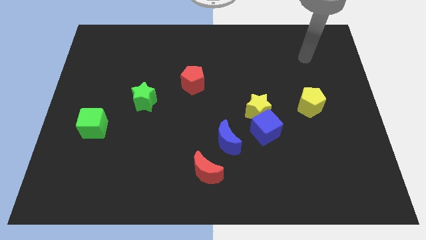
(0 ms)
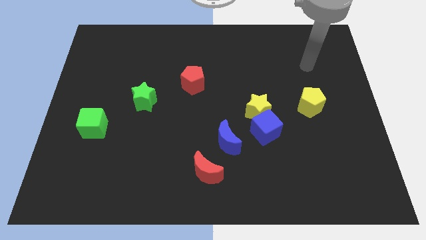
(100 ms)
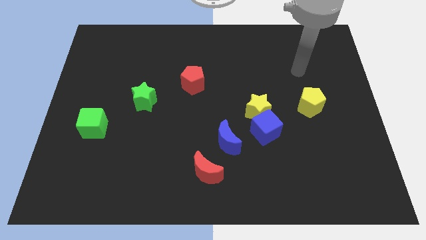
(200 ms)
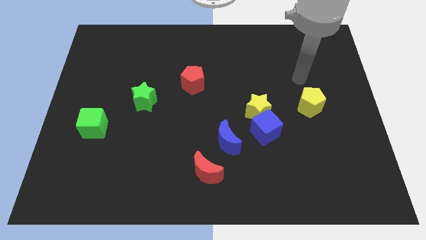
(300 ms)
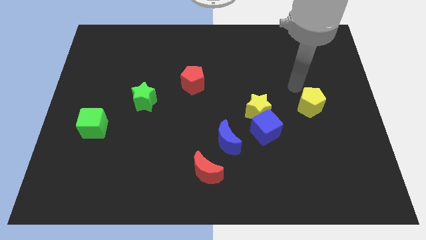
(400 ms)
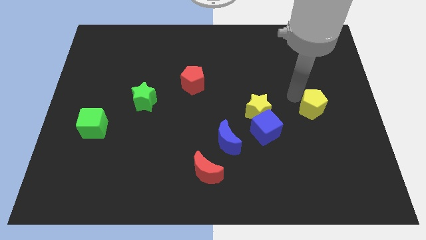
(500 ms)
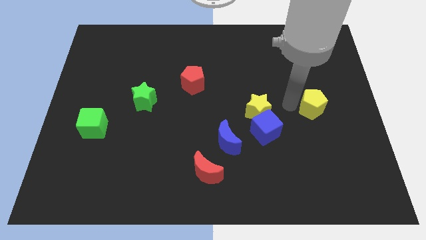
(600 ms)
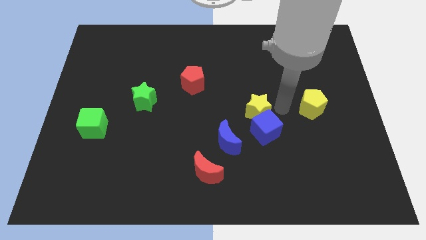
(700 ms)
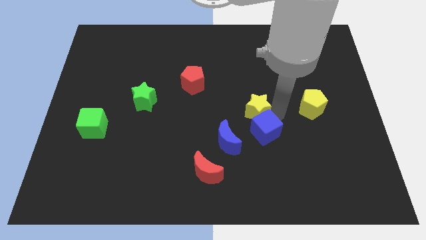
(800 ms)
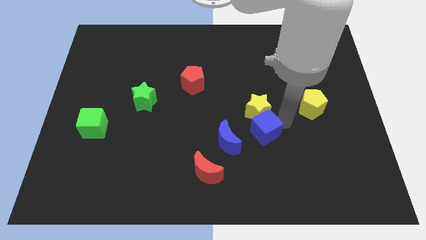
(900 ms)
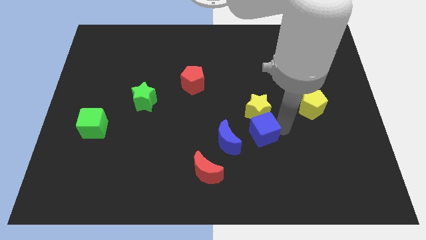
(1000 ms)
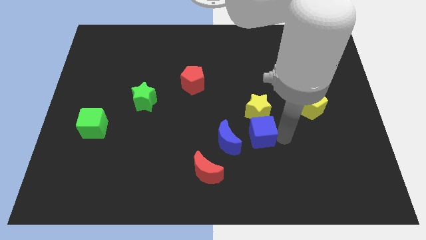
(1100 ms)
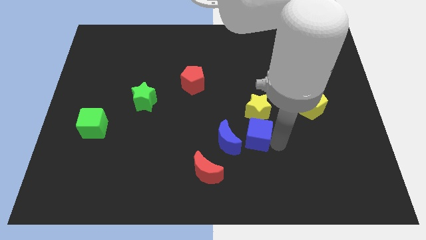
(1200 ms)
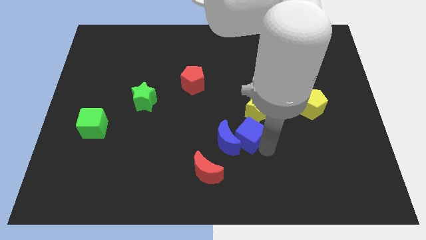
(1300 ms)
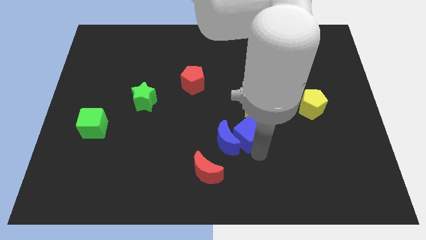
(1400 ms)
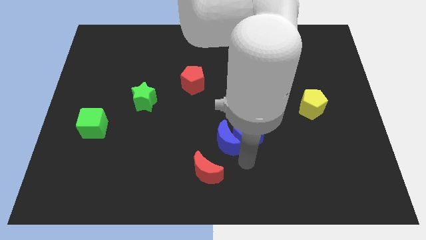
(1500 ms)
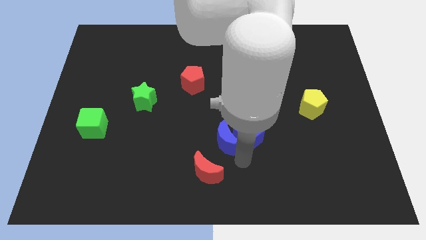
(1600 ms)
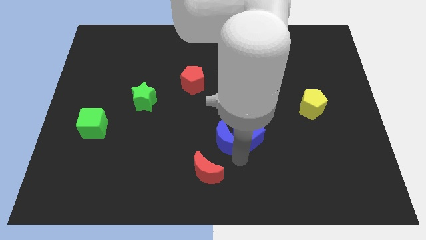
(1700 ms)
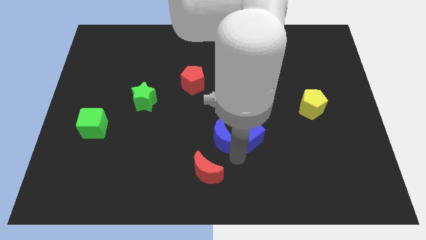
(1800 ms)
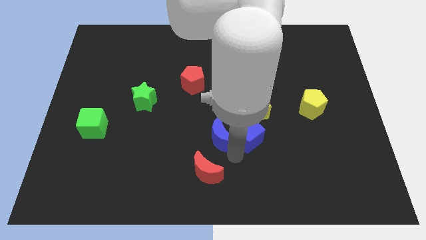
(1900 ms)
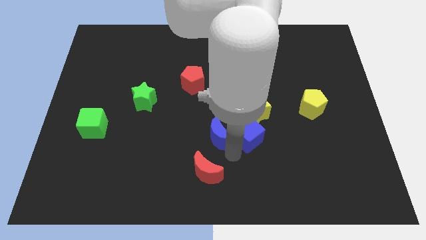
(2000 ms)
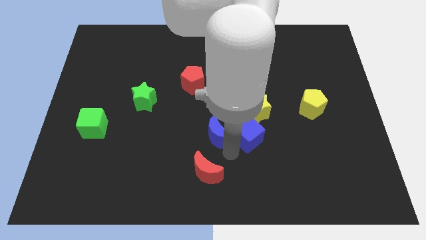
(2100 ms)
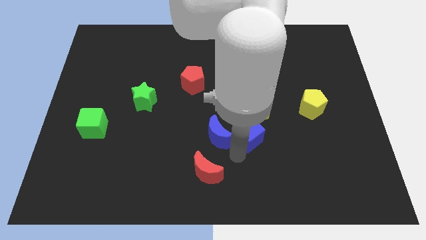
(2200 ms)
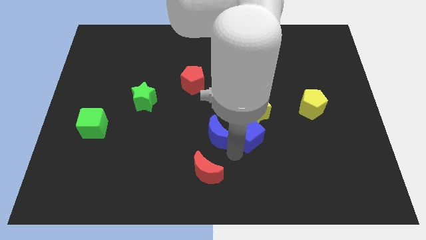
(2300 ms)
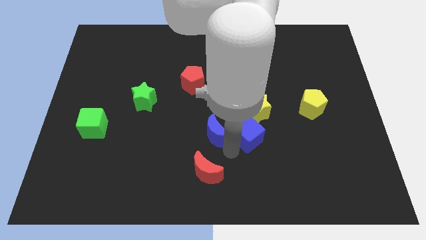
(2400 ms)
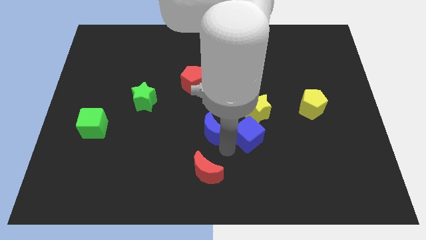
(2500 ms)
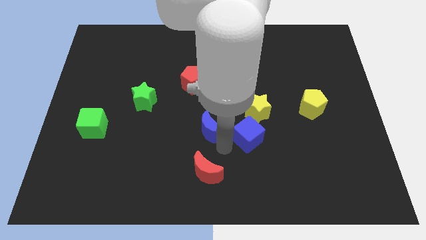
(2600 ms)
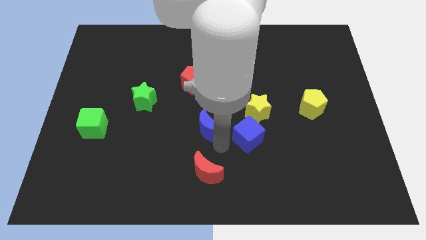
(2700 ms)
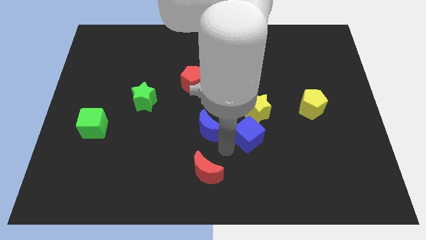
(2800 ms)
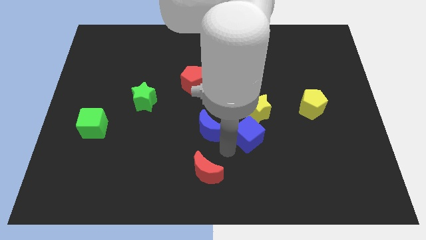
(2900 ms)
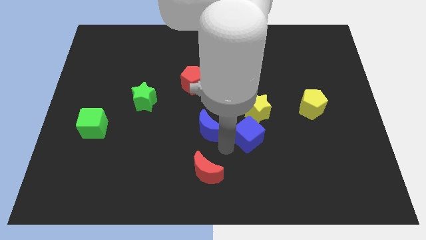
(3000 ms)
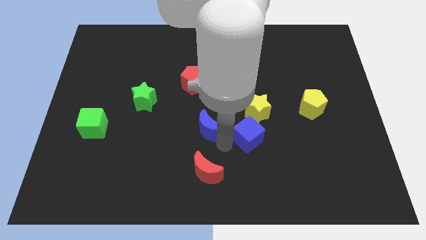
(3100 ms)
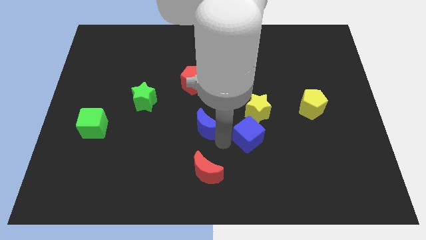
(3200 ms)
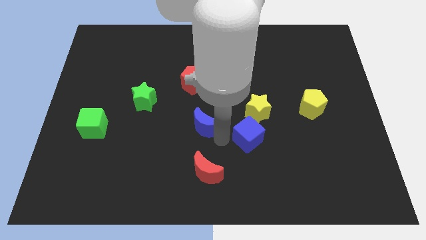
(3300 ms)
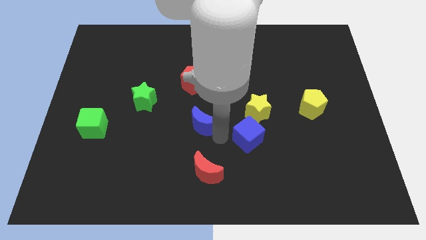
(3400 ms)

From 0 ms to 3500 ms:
slightly slide the blue moon upwards and left diagonally

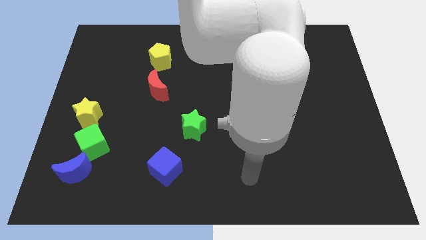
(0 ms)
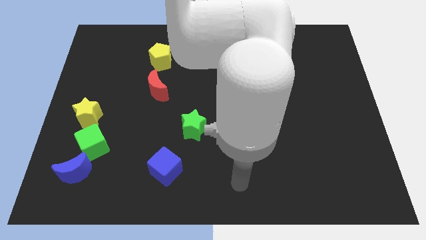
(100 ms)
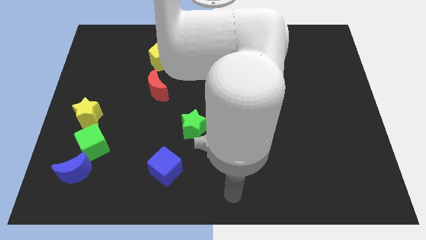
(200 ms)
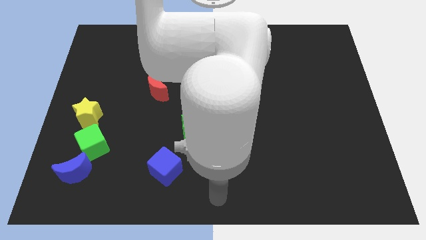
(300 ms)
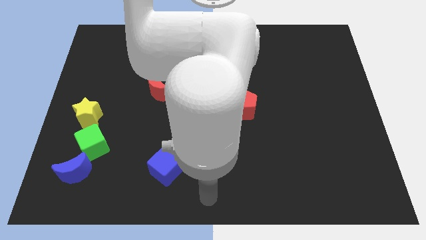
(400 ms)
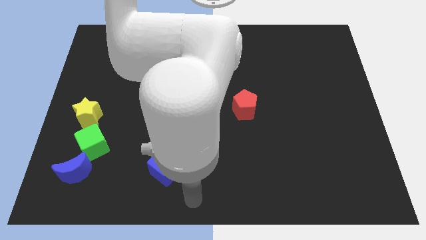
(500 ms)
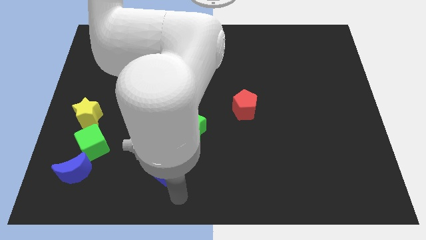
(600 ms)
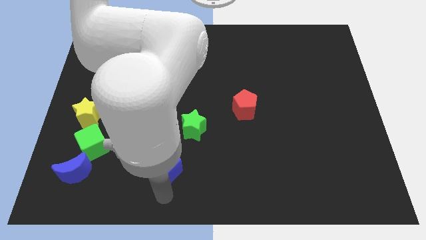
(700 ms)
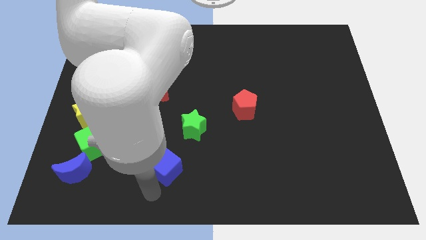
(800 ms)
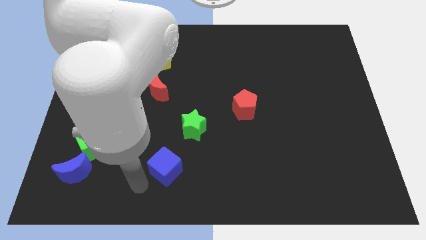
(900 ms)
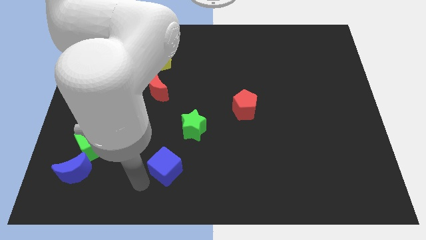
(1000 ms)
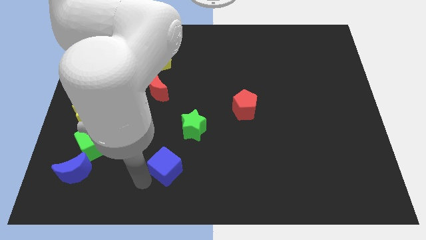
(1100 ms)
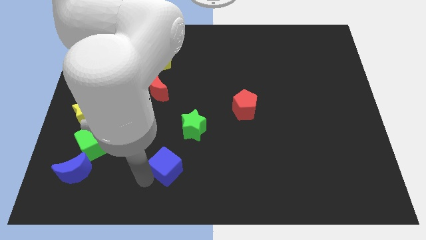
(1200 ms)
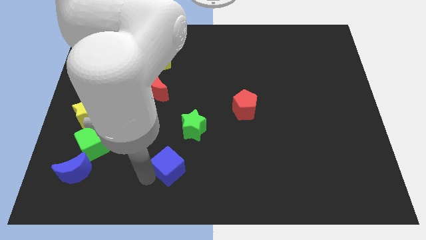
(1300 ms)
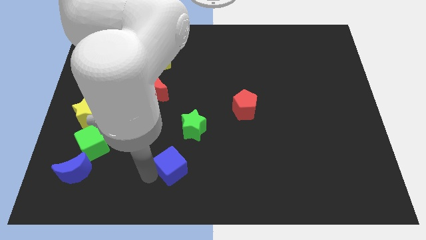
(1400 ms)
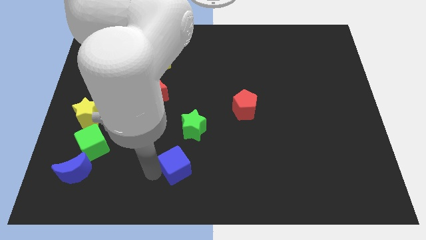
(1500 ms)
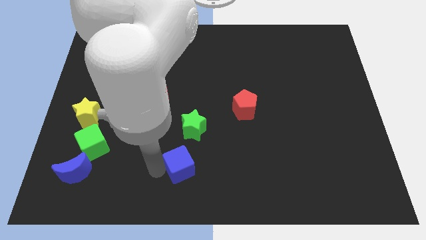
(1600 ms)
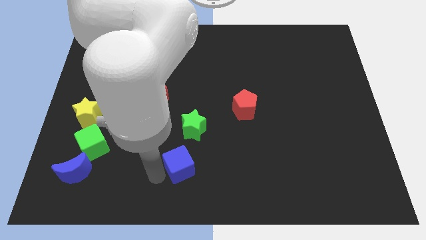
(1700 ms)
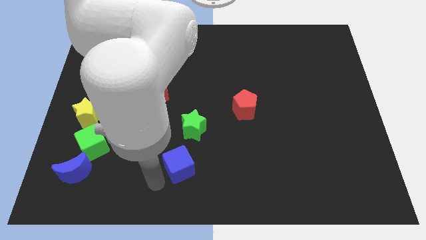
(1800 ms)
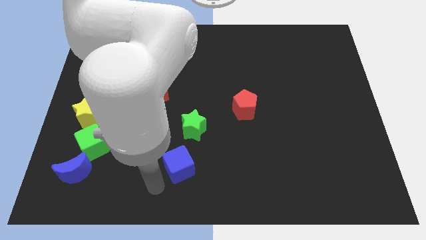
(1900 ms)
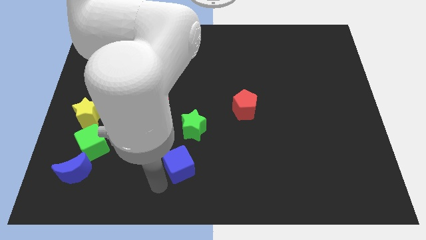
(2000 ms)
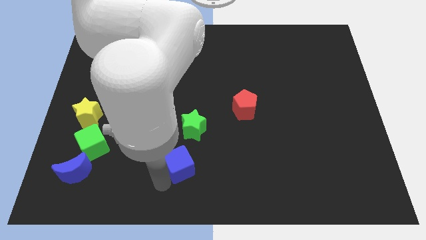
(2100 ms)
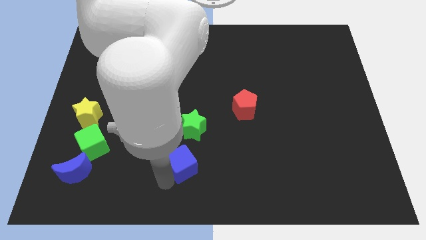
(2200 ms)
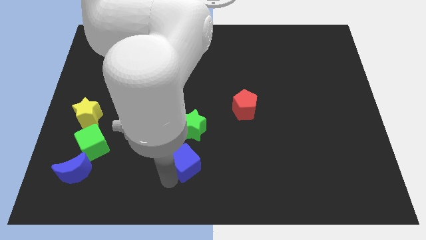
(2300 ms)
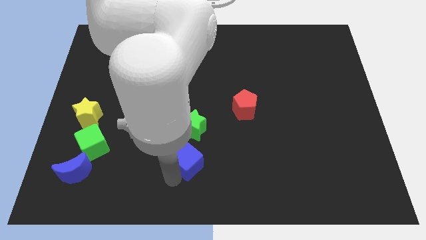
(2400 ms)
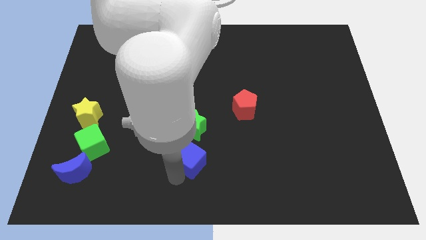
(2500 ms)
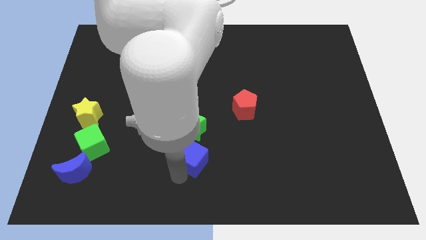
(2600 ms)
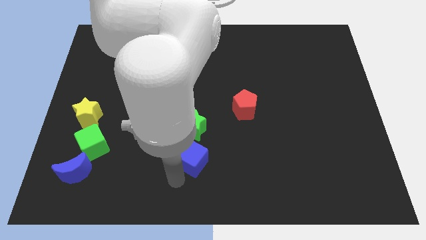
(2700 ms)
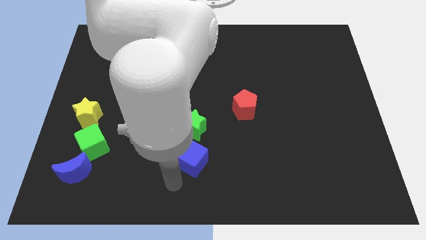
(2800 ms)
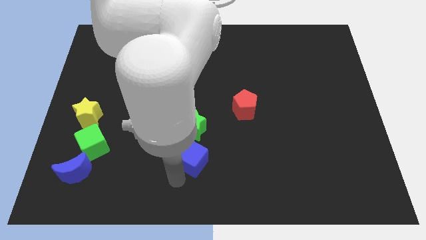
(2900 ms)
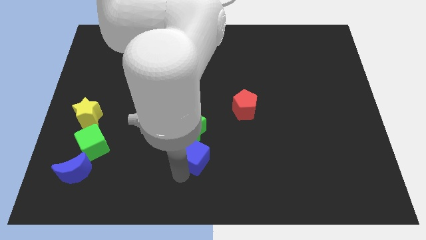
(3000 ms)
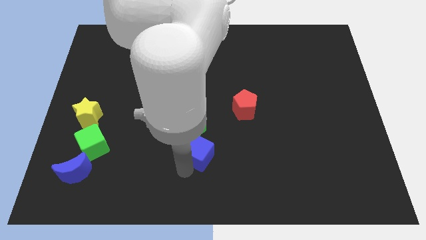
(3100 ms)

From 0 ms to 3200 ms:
slightly push the blue cube up and then to the right

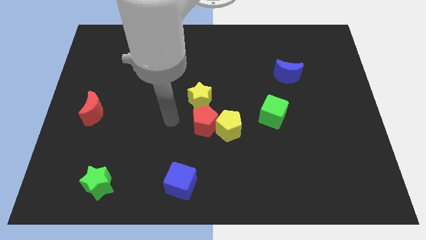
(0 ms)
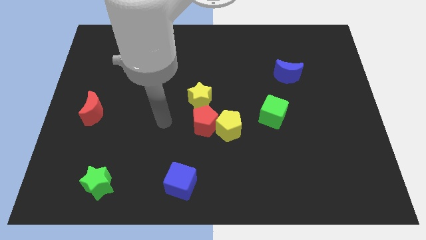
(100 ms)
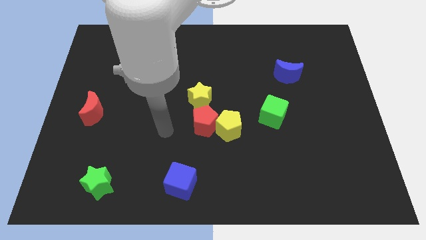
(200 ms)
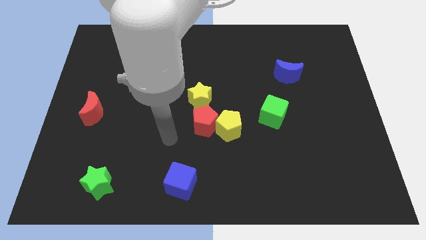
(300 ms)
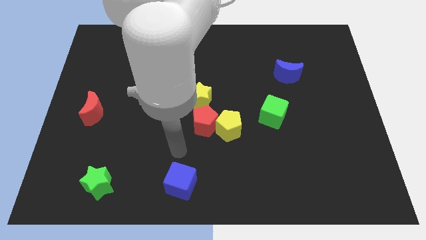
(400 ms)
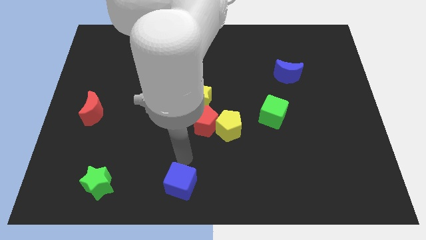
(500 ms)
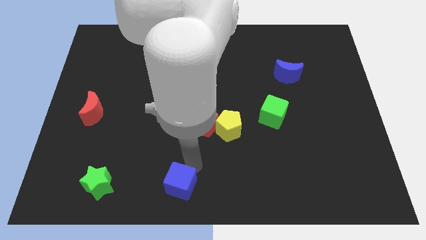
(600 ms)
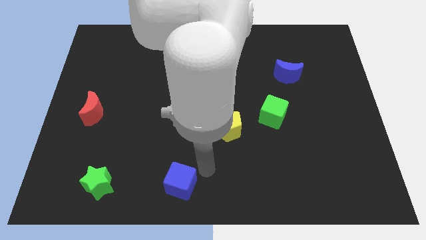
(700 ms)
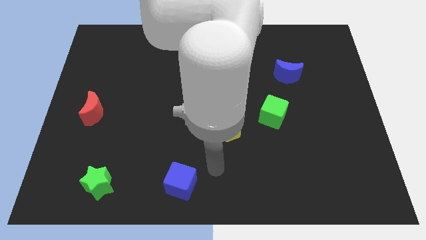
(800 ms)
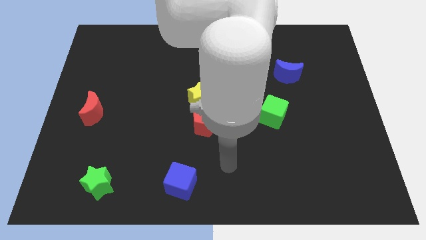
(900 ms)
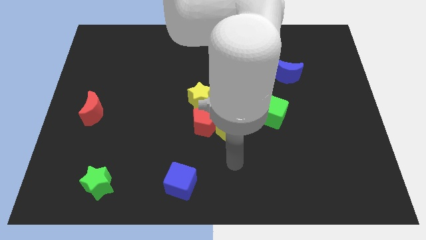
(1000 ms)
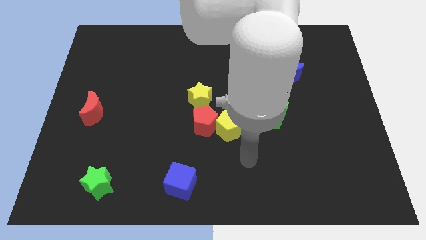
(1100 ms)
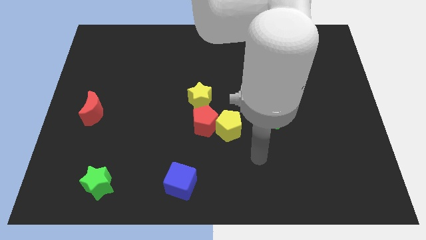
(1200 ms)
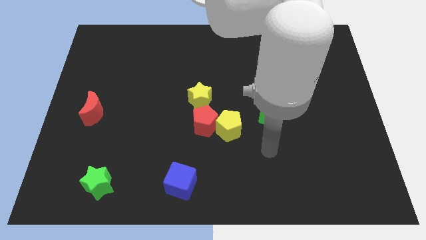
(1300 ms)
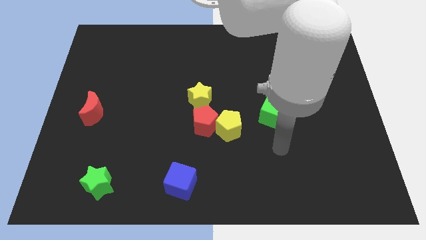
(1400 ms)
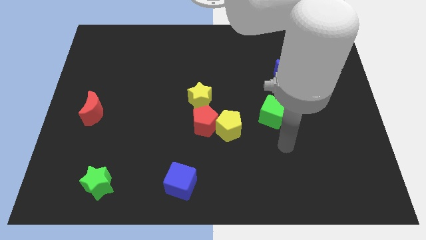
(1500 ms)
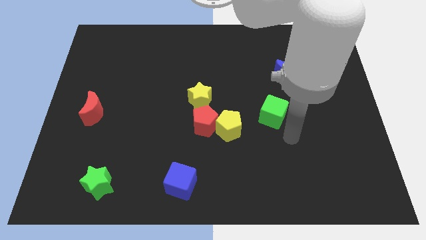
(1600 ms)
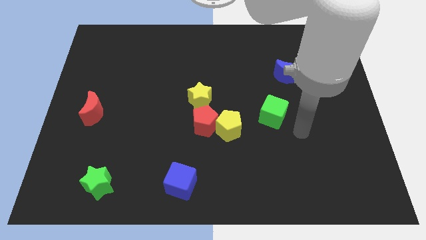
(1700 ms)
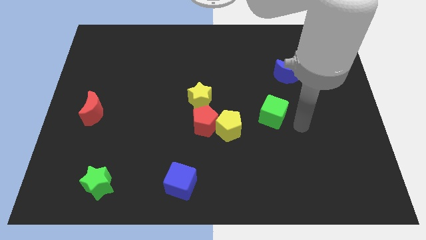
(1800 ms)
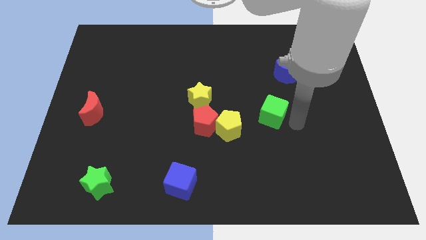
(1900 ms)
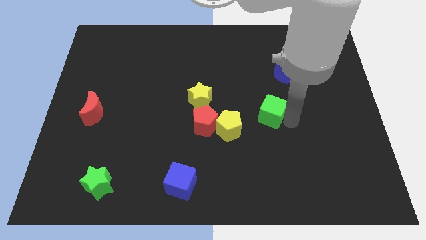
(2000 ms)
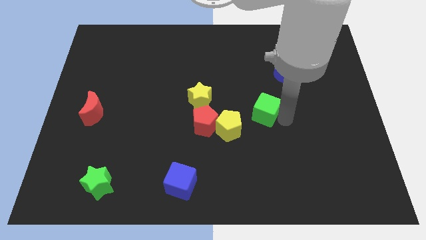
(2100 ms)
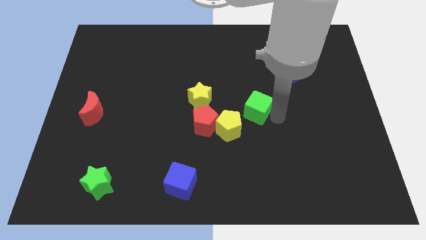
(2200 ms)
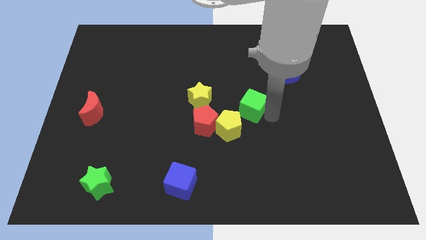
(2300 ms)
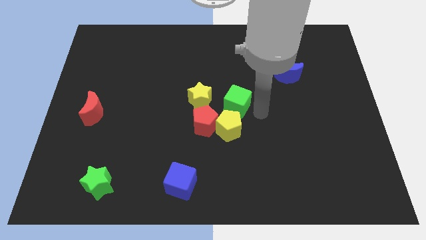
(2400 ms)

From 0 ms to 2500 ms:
slide the green cube left slightly
